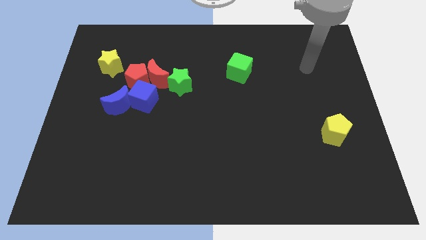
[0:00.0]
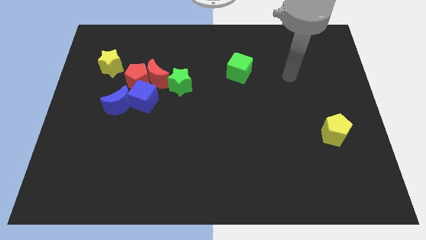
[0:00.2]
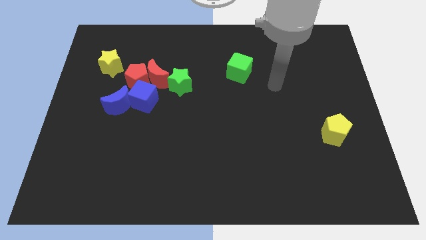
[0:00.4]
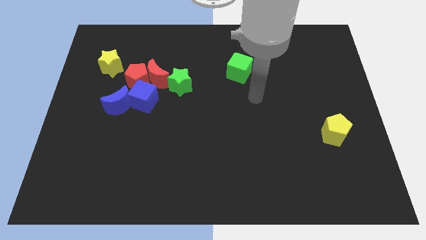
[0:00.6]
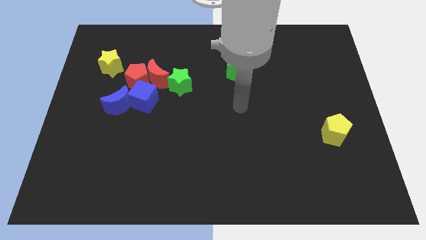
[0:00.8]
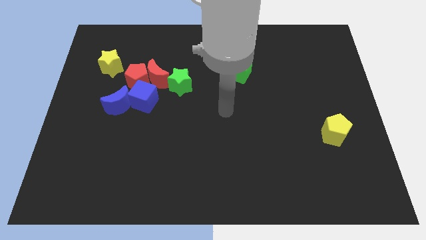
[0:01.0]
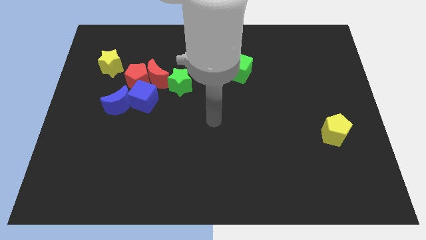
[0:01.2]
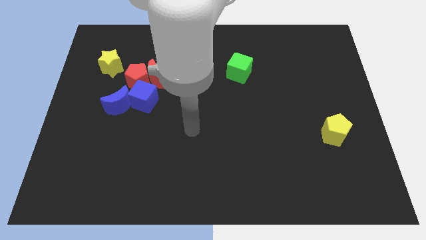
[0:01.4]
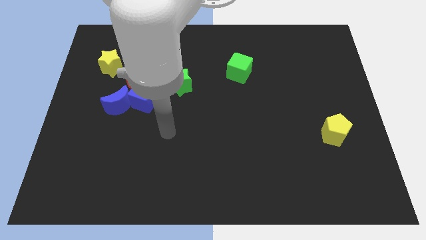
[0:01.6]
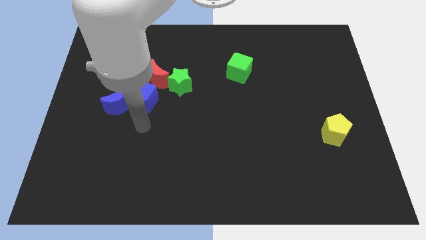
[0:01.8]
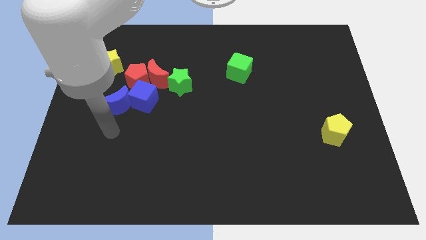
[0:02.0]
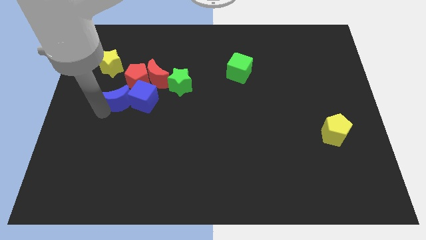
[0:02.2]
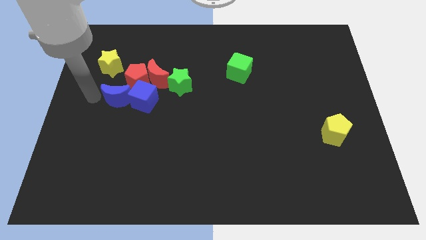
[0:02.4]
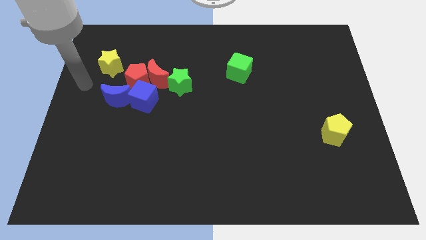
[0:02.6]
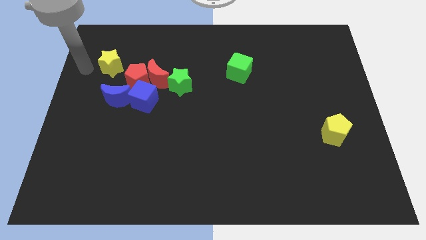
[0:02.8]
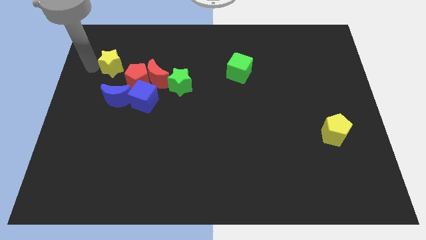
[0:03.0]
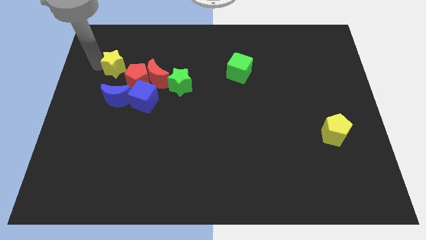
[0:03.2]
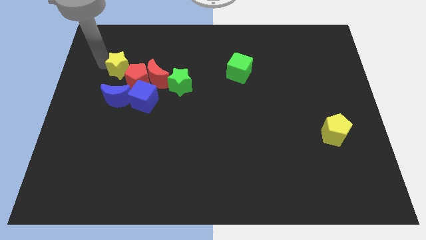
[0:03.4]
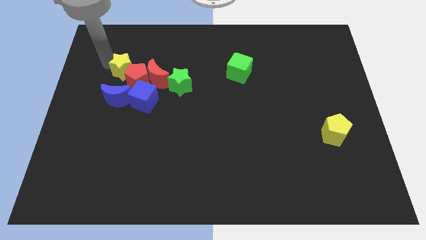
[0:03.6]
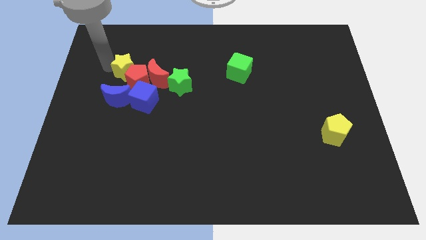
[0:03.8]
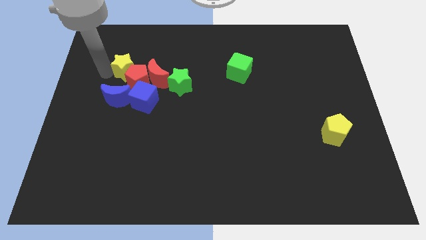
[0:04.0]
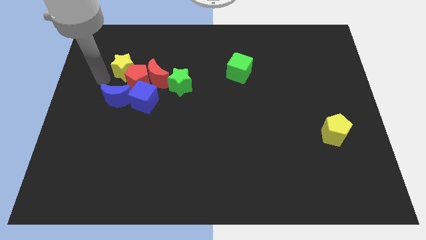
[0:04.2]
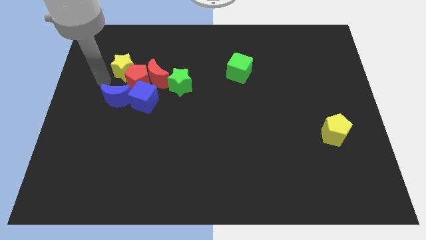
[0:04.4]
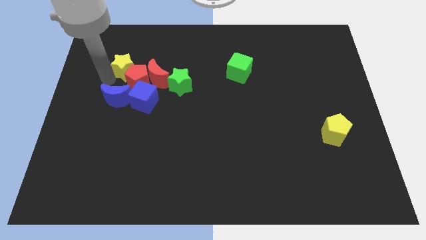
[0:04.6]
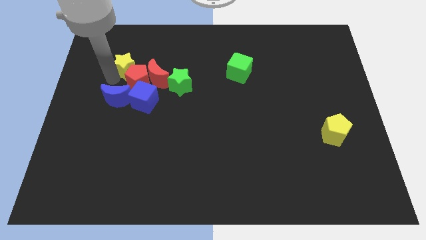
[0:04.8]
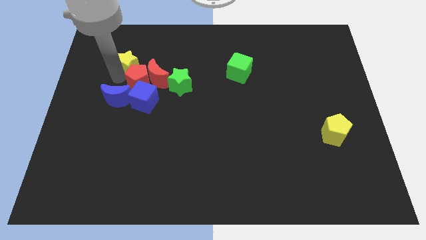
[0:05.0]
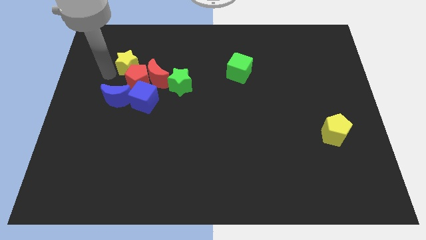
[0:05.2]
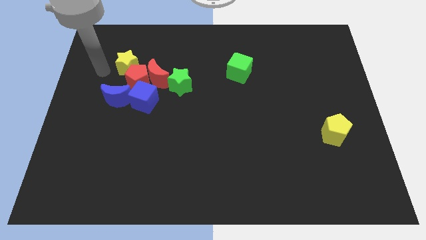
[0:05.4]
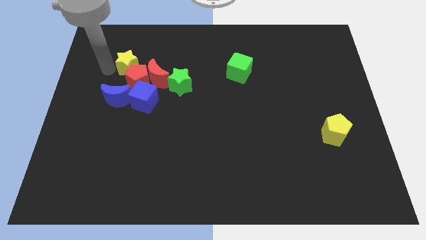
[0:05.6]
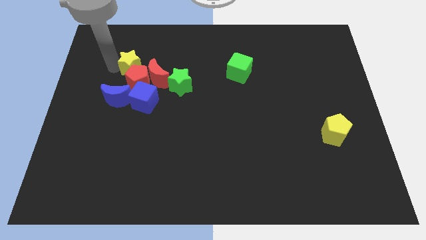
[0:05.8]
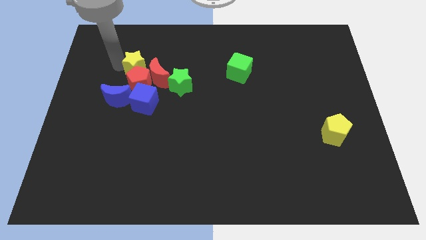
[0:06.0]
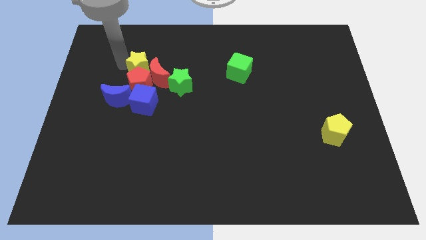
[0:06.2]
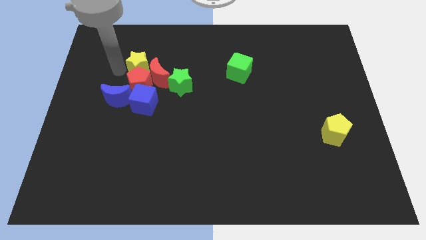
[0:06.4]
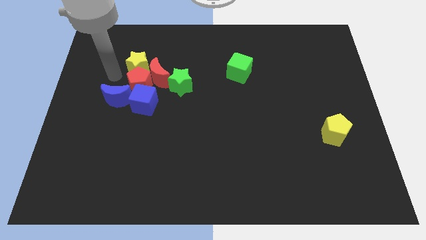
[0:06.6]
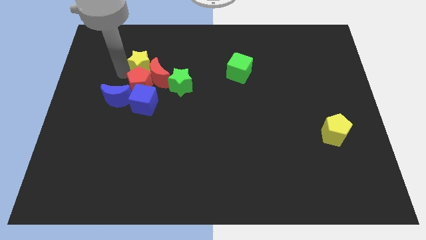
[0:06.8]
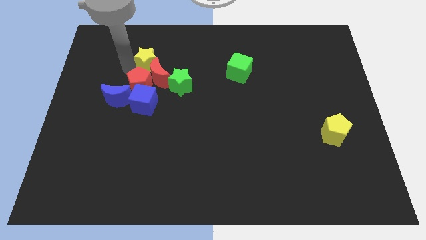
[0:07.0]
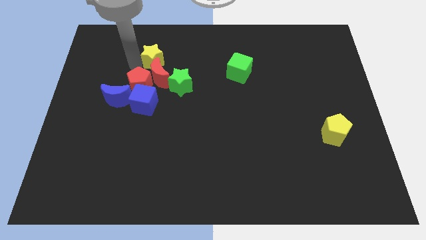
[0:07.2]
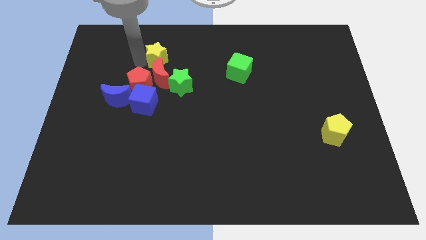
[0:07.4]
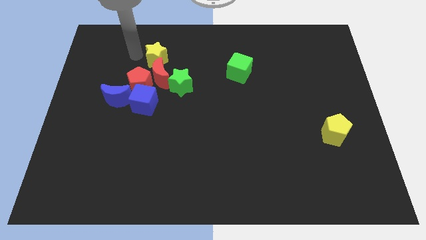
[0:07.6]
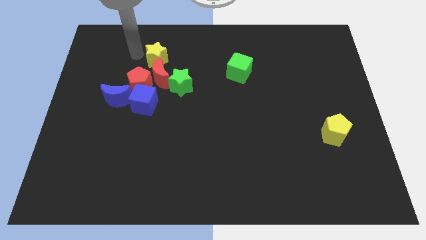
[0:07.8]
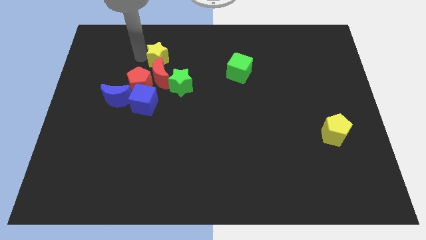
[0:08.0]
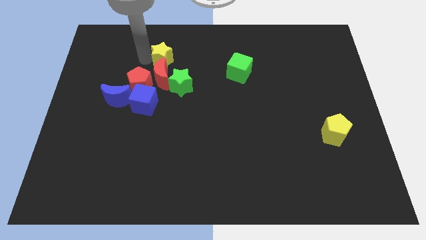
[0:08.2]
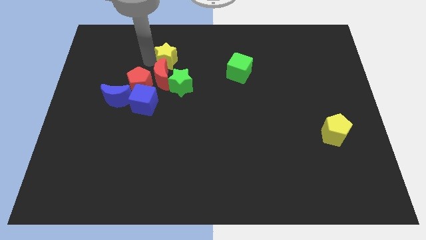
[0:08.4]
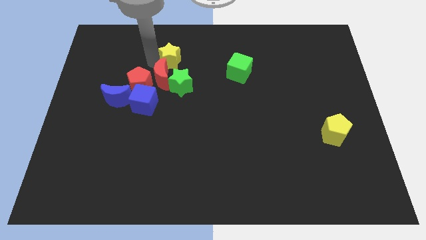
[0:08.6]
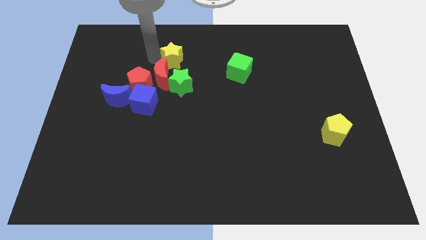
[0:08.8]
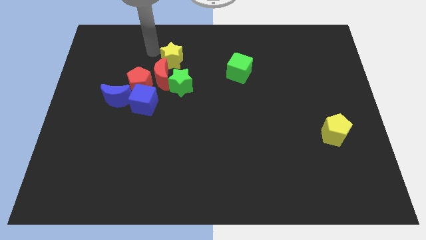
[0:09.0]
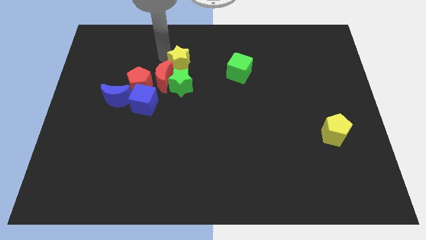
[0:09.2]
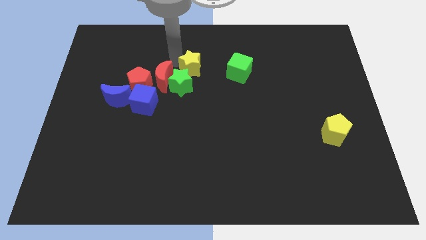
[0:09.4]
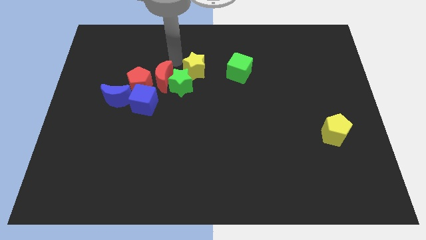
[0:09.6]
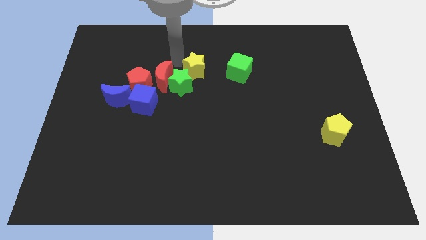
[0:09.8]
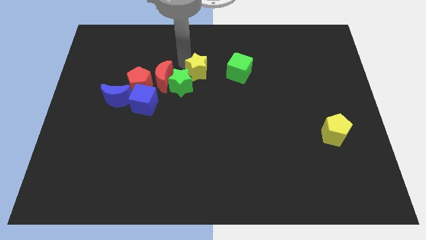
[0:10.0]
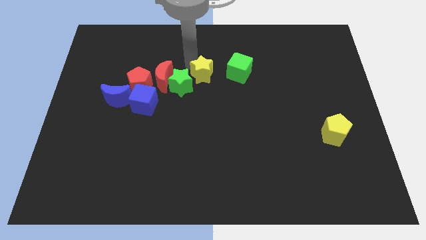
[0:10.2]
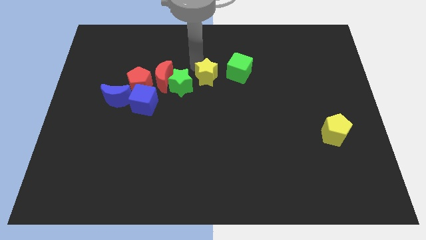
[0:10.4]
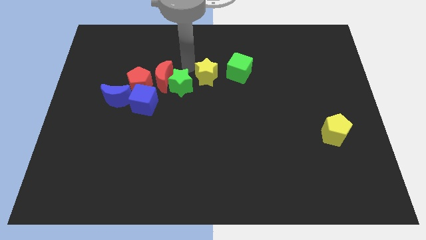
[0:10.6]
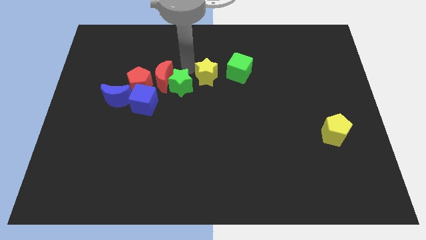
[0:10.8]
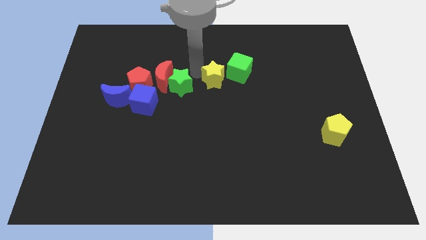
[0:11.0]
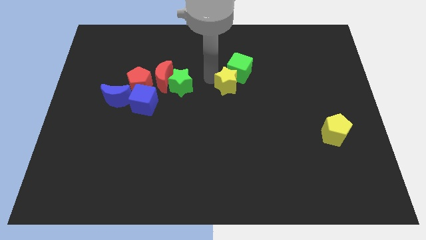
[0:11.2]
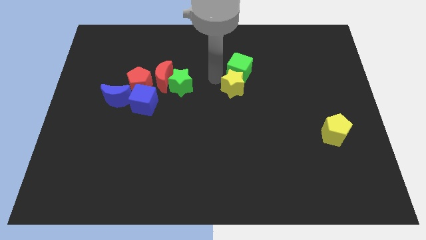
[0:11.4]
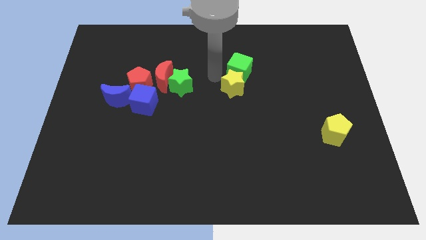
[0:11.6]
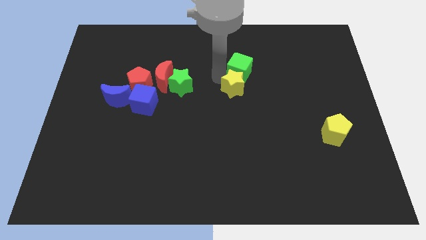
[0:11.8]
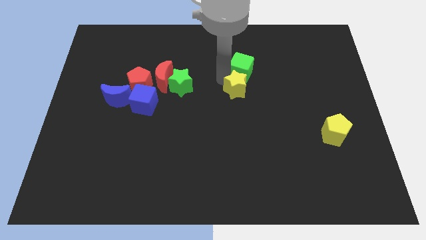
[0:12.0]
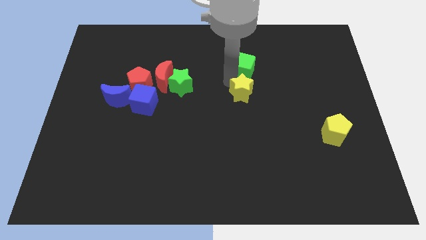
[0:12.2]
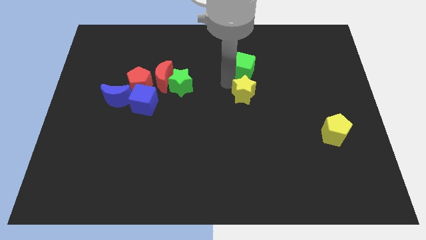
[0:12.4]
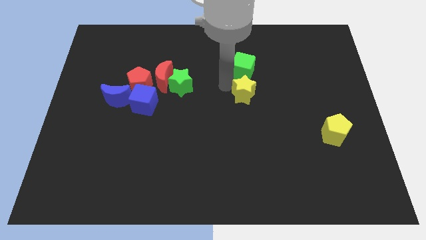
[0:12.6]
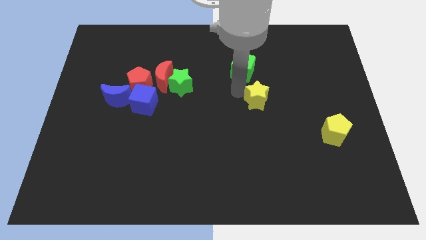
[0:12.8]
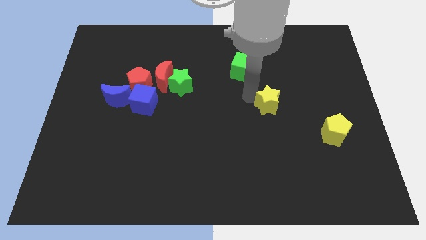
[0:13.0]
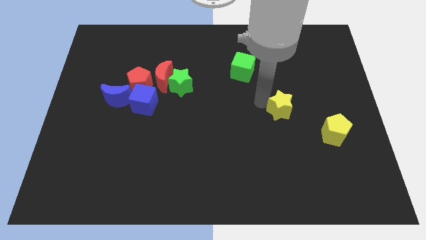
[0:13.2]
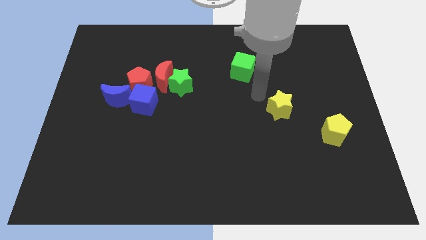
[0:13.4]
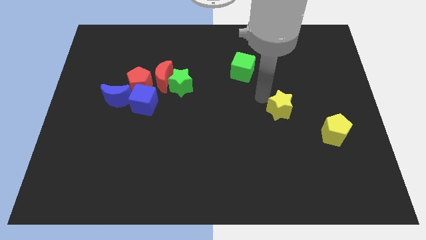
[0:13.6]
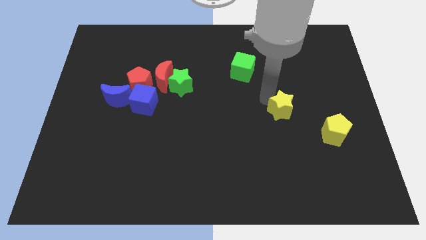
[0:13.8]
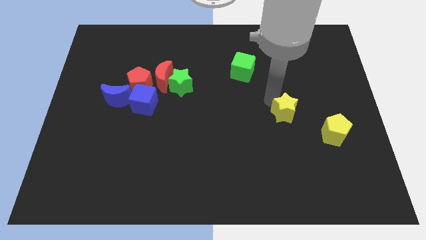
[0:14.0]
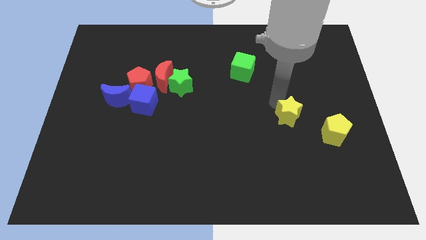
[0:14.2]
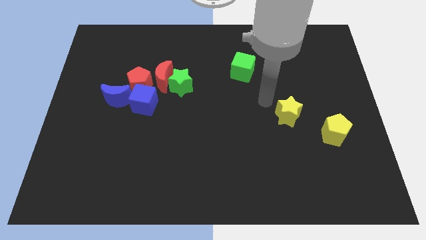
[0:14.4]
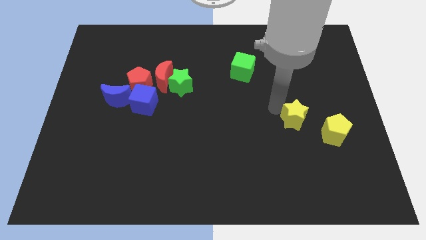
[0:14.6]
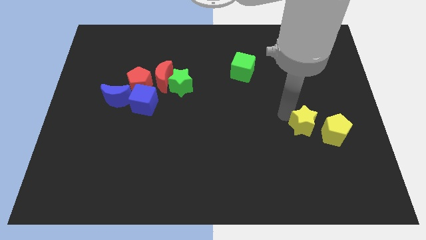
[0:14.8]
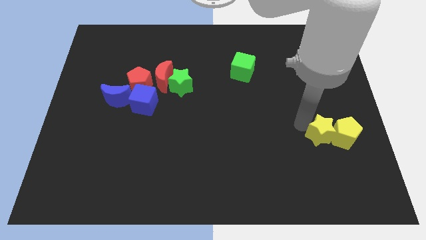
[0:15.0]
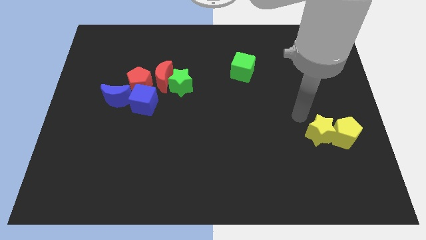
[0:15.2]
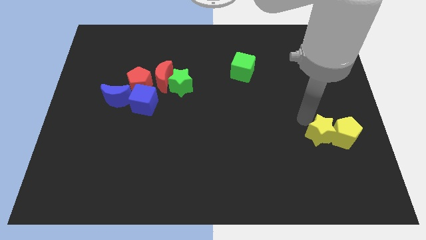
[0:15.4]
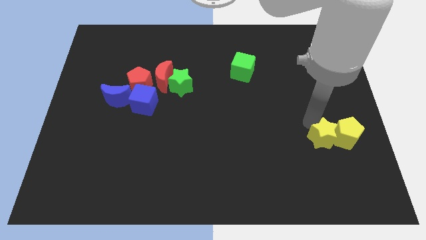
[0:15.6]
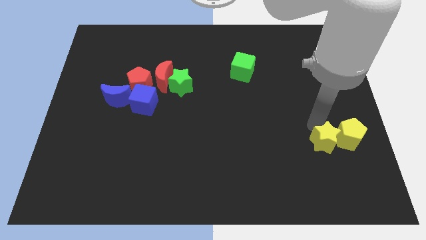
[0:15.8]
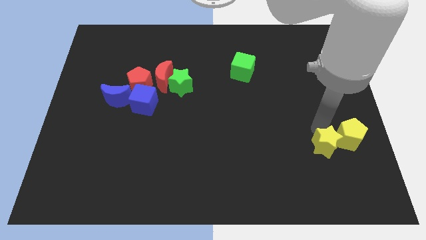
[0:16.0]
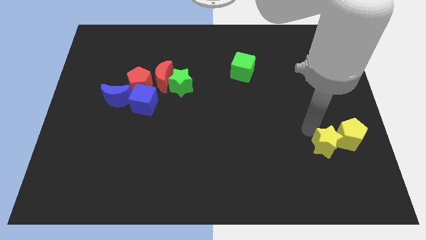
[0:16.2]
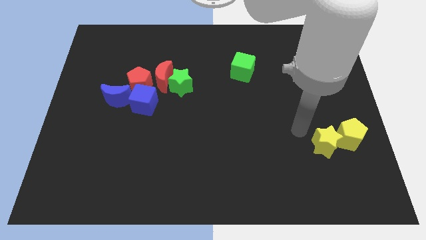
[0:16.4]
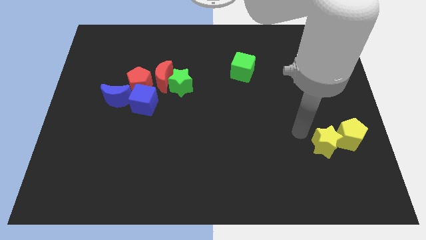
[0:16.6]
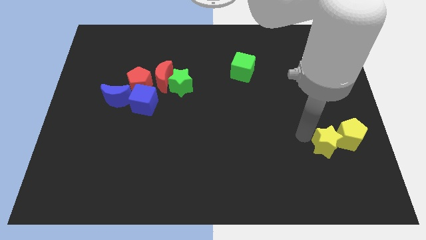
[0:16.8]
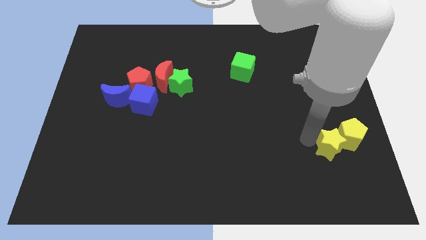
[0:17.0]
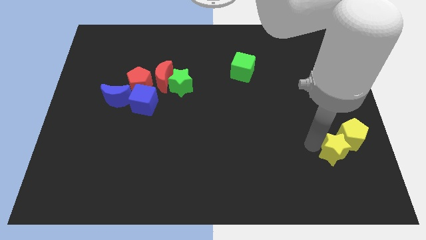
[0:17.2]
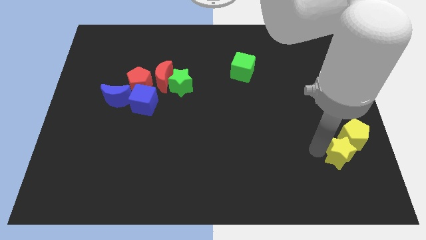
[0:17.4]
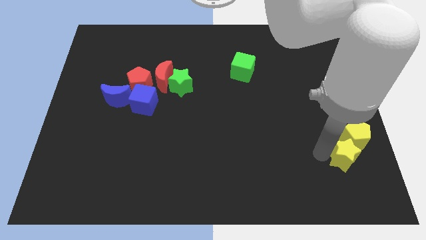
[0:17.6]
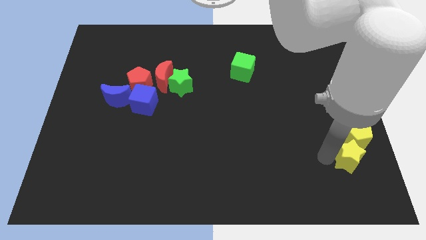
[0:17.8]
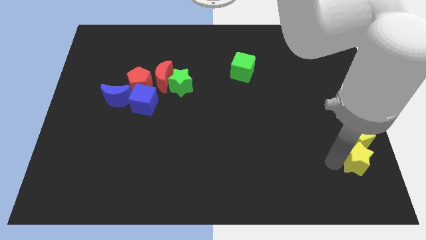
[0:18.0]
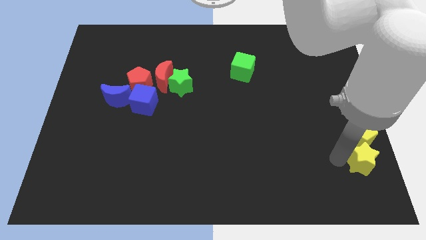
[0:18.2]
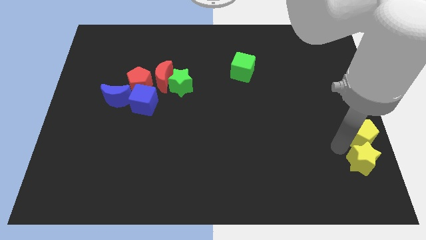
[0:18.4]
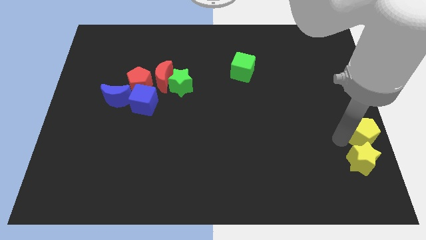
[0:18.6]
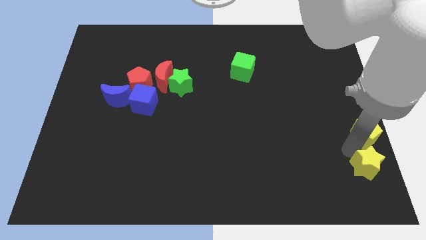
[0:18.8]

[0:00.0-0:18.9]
push the yellow star to the bottom right
